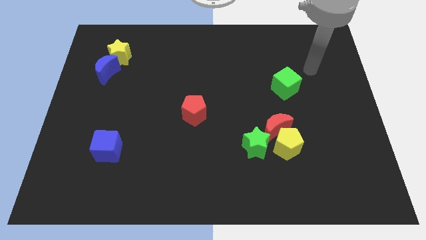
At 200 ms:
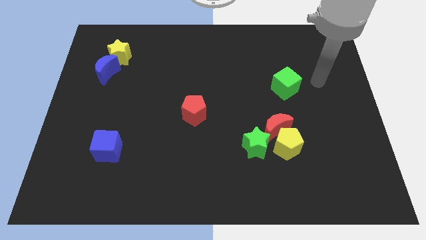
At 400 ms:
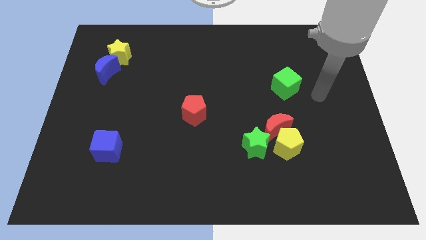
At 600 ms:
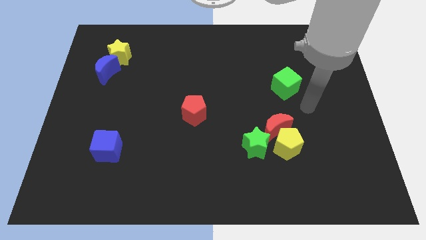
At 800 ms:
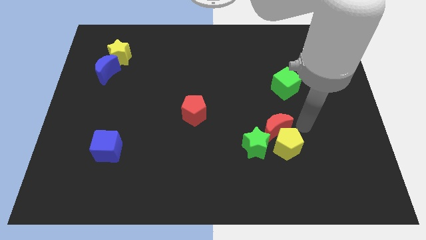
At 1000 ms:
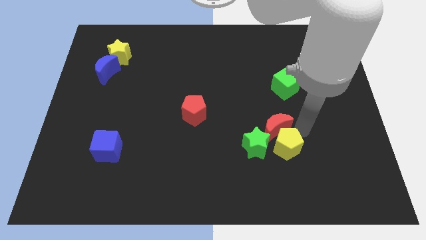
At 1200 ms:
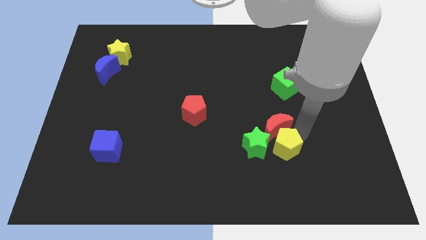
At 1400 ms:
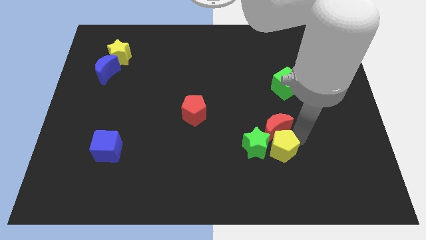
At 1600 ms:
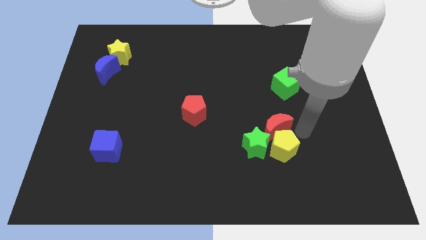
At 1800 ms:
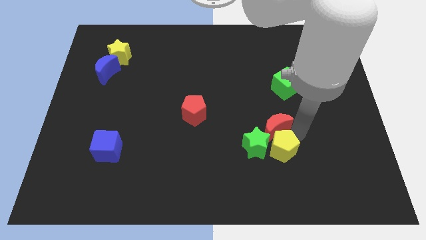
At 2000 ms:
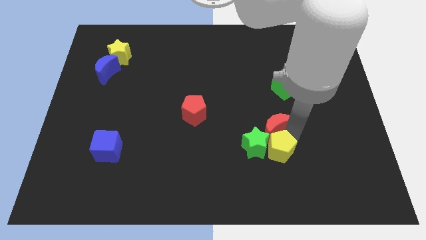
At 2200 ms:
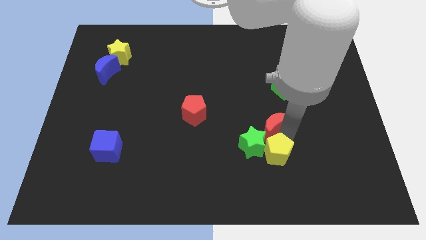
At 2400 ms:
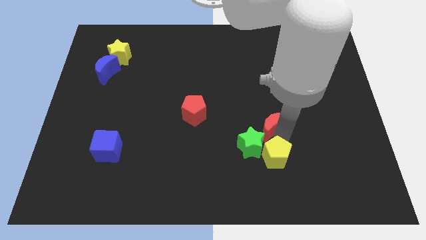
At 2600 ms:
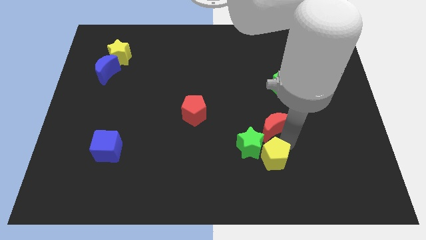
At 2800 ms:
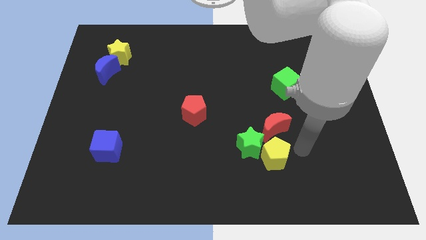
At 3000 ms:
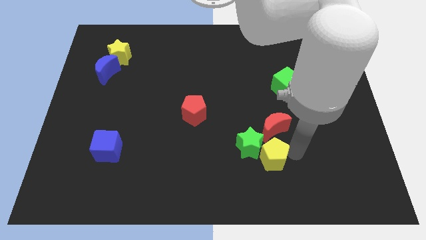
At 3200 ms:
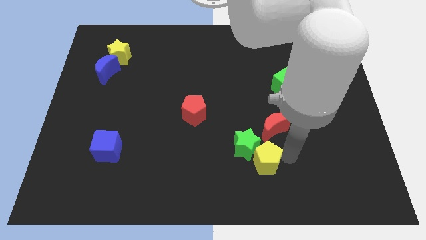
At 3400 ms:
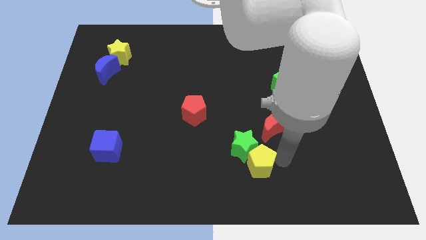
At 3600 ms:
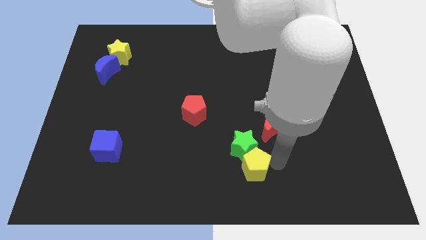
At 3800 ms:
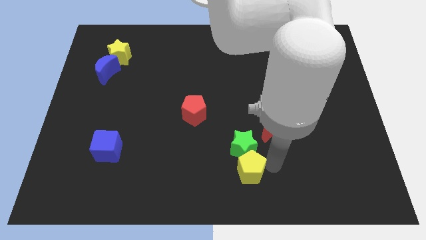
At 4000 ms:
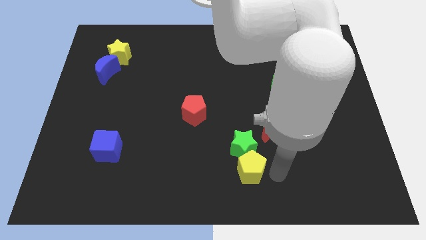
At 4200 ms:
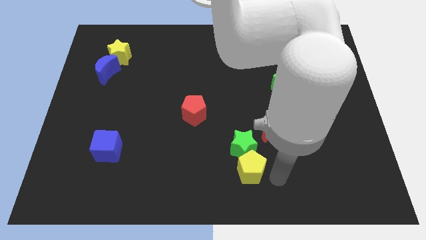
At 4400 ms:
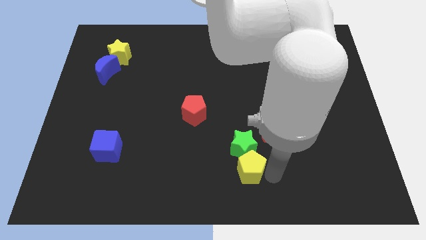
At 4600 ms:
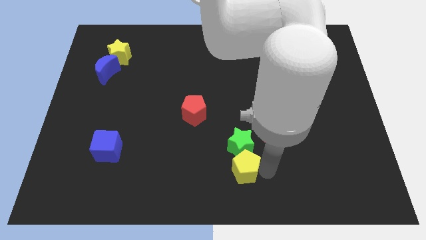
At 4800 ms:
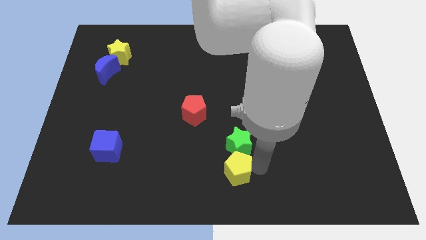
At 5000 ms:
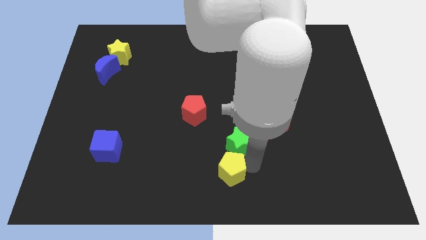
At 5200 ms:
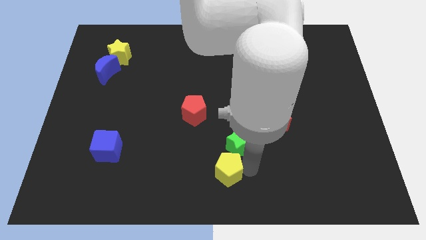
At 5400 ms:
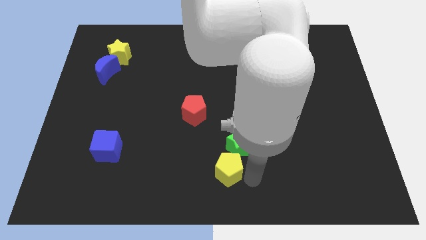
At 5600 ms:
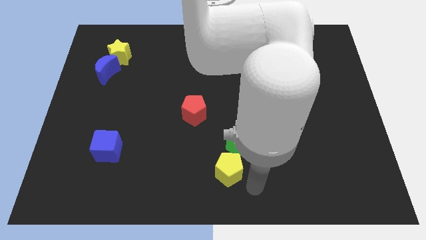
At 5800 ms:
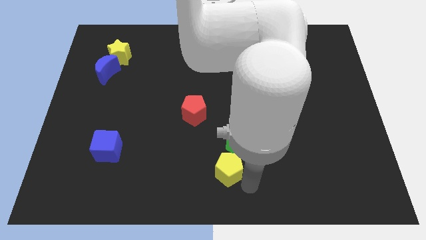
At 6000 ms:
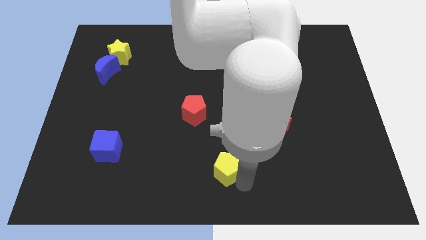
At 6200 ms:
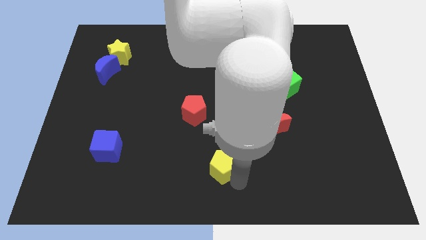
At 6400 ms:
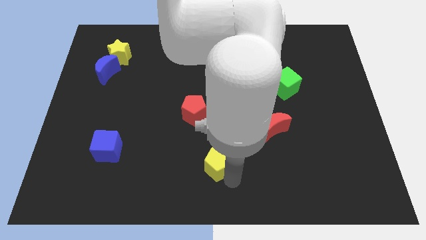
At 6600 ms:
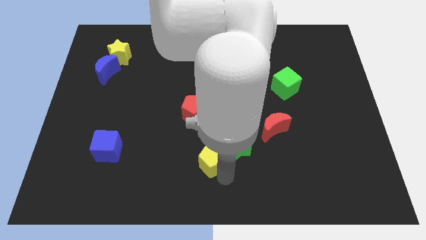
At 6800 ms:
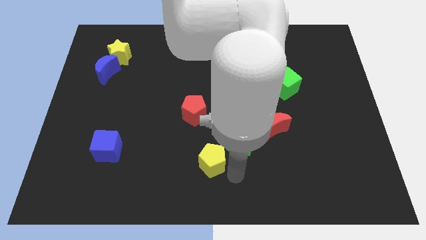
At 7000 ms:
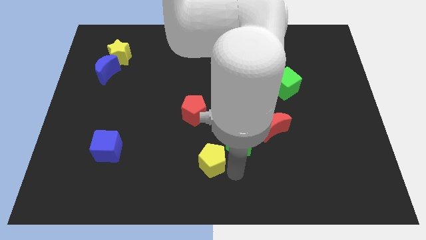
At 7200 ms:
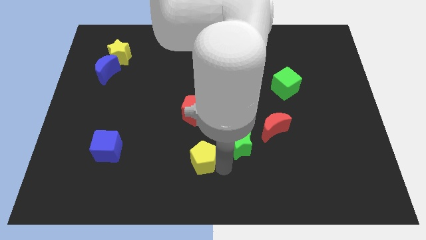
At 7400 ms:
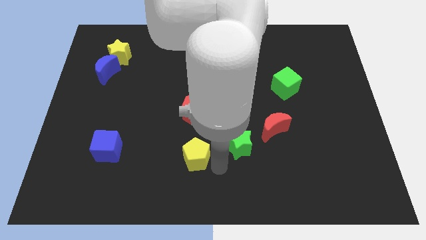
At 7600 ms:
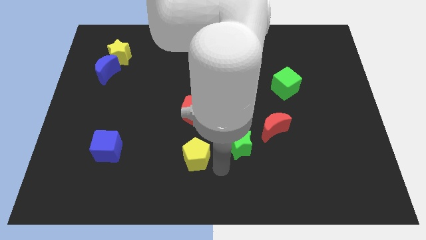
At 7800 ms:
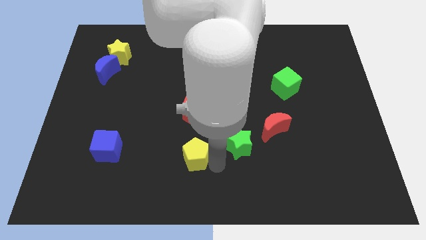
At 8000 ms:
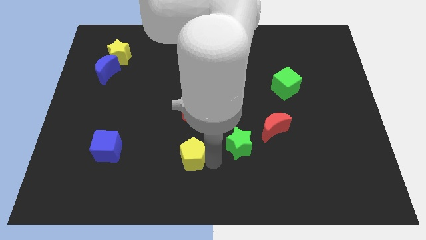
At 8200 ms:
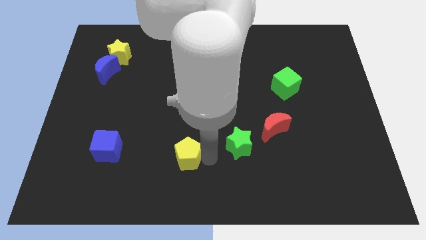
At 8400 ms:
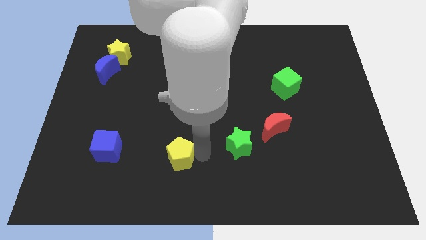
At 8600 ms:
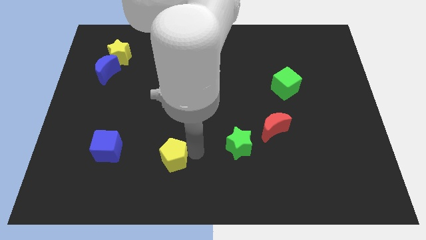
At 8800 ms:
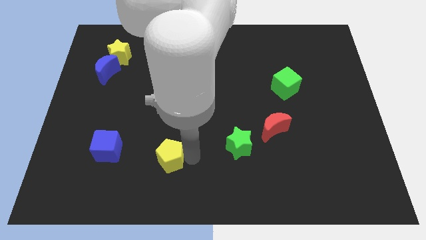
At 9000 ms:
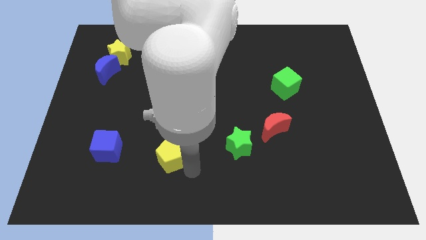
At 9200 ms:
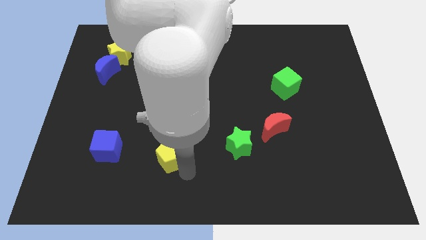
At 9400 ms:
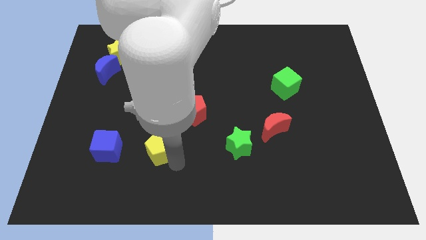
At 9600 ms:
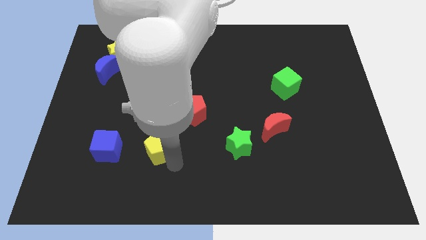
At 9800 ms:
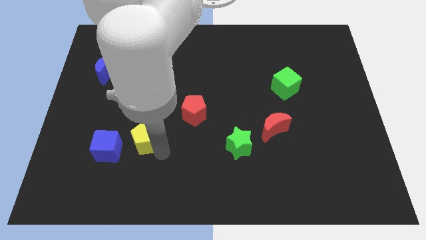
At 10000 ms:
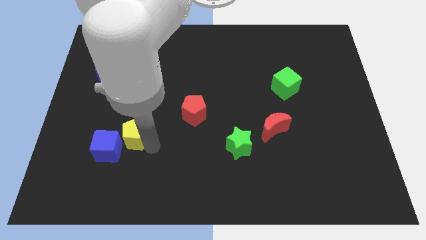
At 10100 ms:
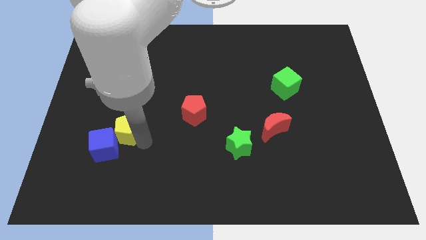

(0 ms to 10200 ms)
push the yellow pentagon to the top of the blue cube

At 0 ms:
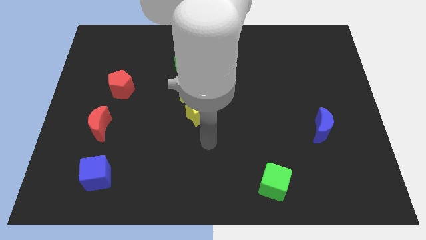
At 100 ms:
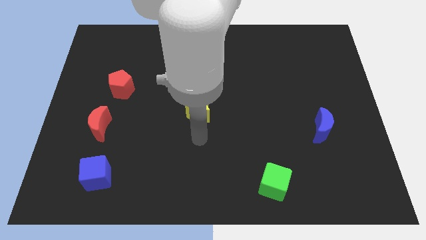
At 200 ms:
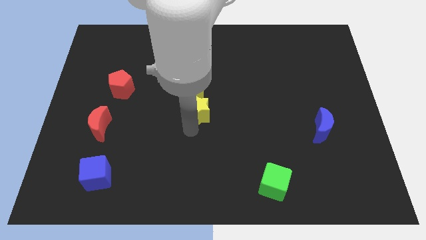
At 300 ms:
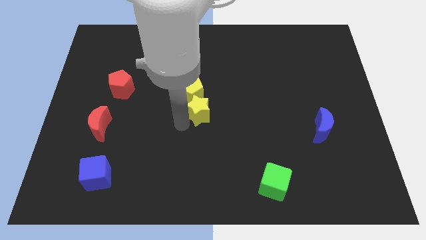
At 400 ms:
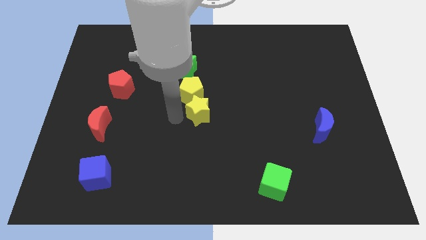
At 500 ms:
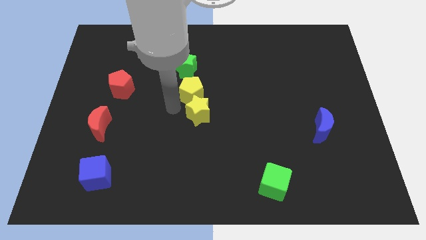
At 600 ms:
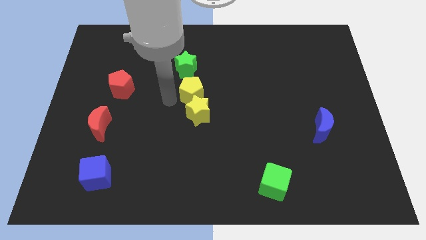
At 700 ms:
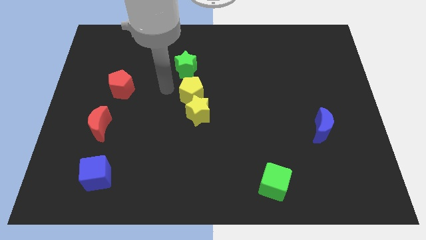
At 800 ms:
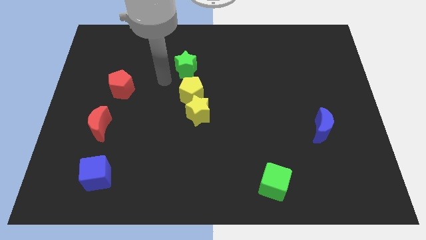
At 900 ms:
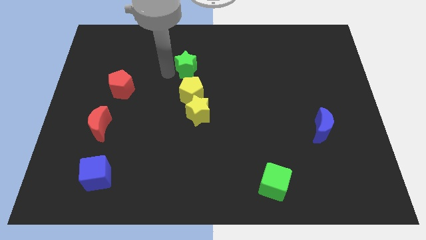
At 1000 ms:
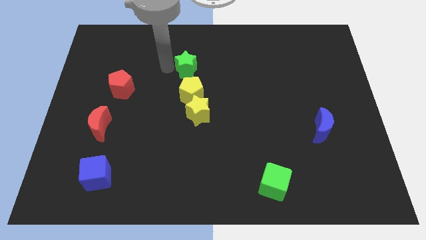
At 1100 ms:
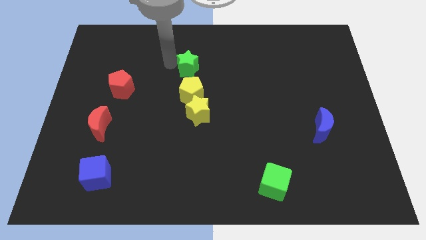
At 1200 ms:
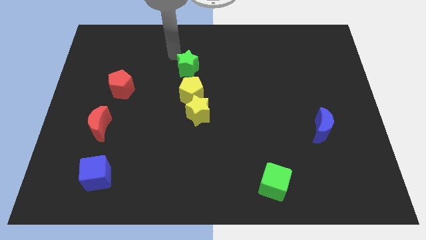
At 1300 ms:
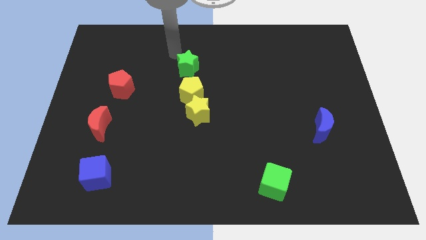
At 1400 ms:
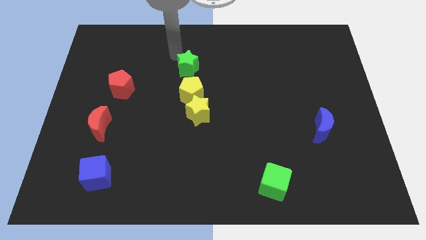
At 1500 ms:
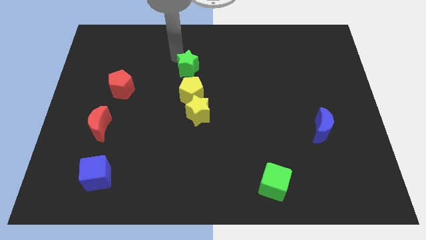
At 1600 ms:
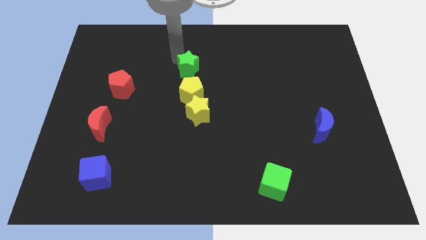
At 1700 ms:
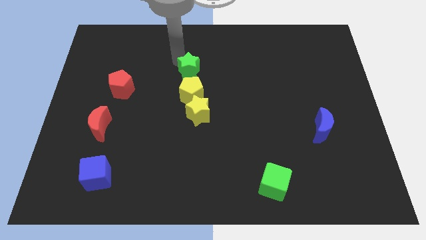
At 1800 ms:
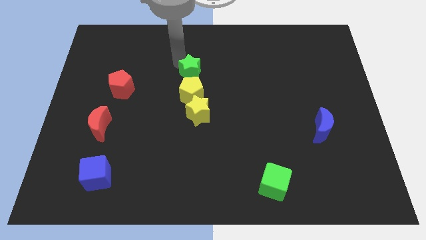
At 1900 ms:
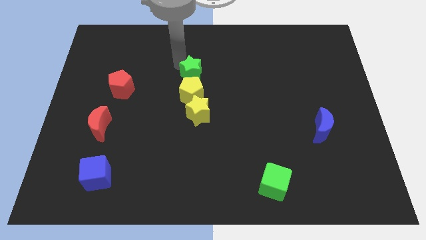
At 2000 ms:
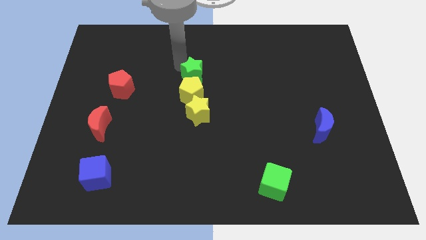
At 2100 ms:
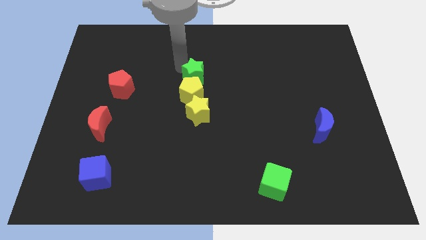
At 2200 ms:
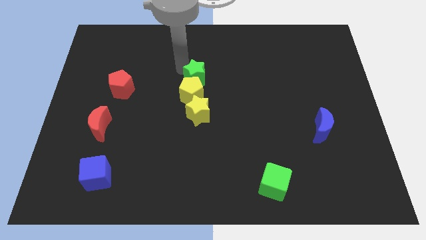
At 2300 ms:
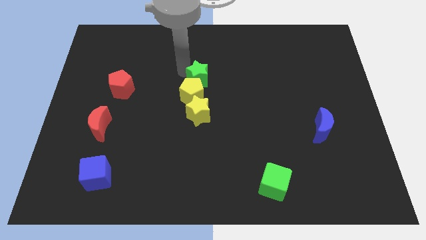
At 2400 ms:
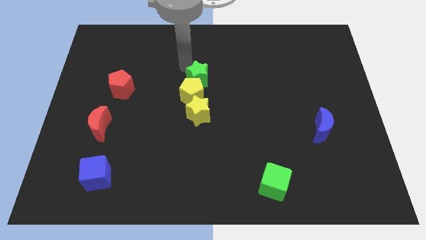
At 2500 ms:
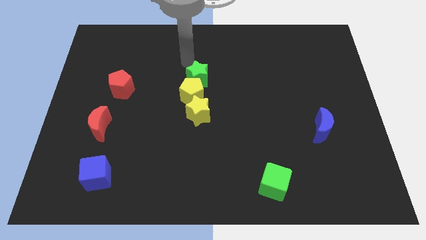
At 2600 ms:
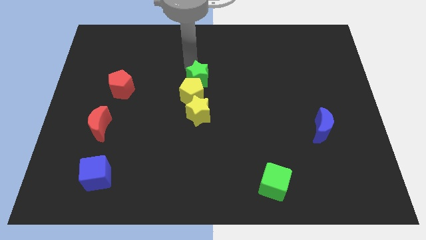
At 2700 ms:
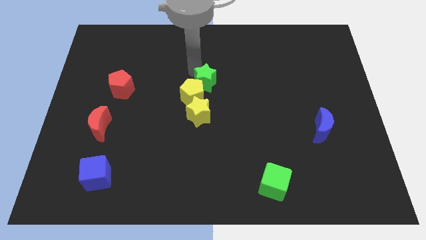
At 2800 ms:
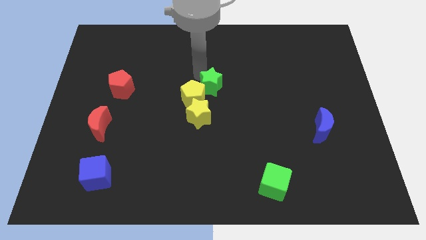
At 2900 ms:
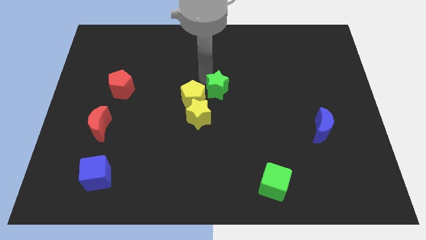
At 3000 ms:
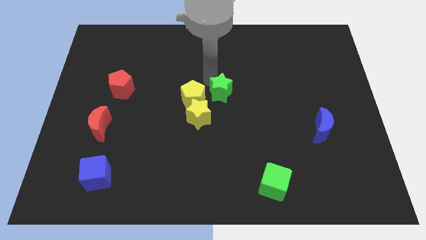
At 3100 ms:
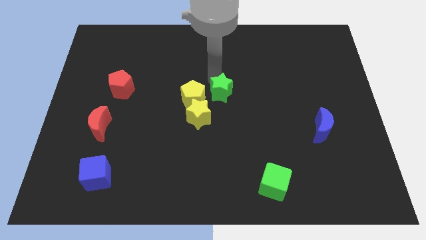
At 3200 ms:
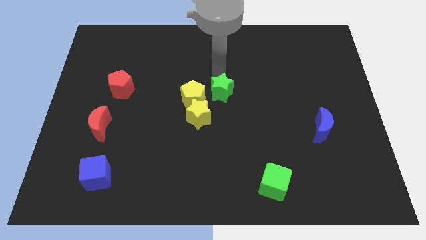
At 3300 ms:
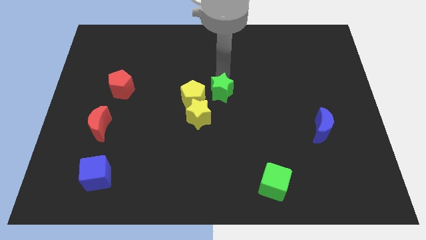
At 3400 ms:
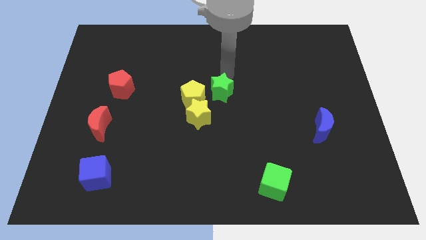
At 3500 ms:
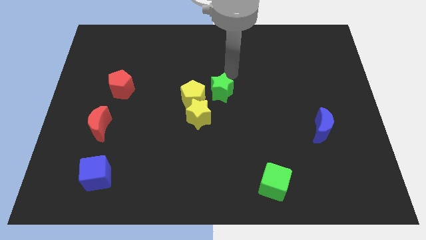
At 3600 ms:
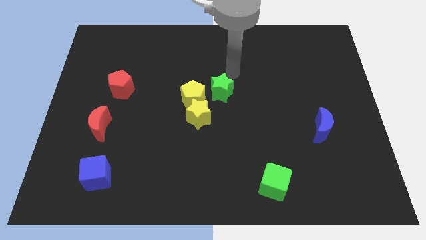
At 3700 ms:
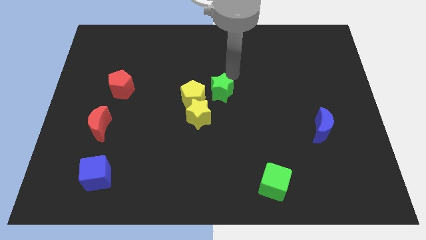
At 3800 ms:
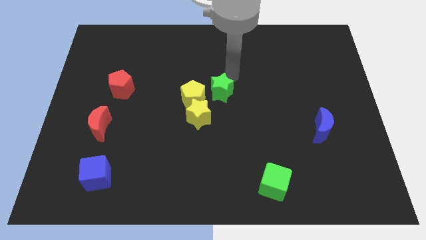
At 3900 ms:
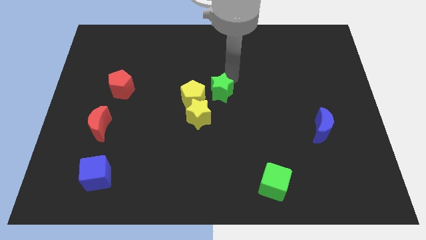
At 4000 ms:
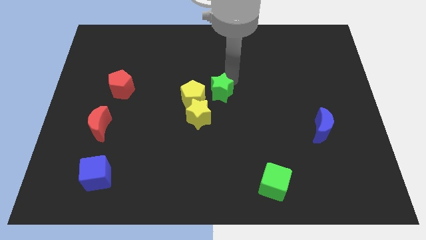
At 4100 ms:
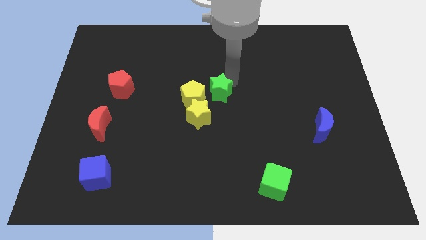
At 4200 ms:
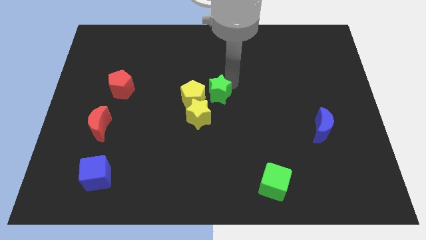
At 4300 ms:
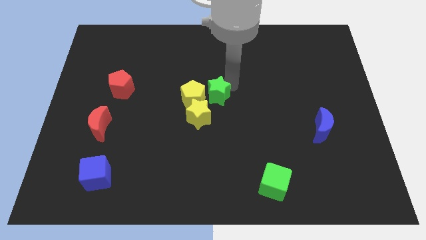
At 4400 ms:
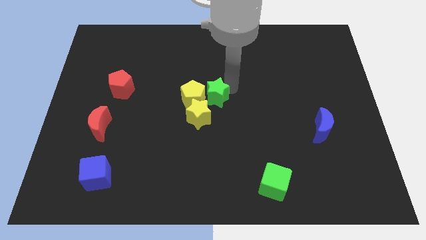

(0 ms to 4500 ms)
move the green star to the bottom right of the yellow pentagon
